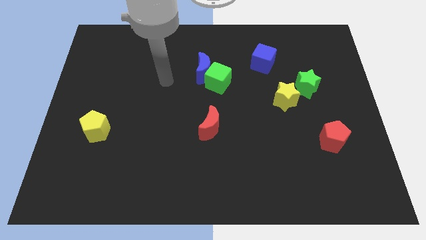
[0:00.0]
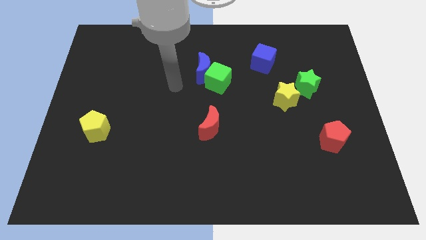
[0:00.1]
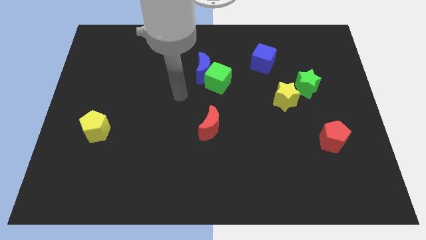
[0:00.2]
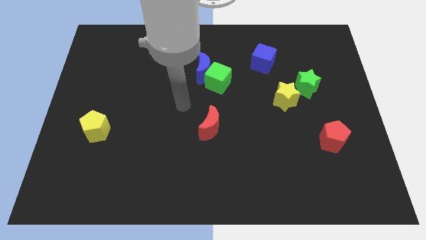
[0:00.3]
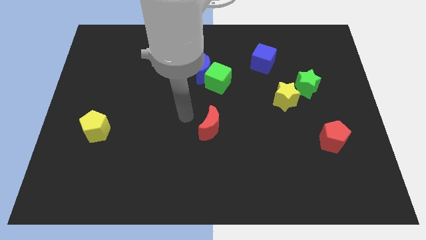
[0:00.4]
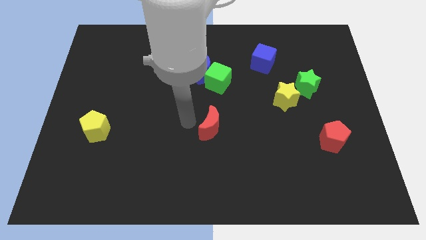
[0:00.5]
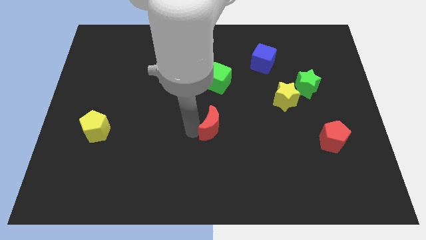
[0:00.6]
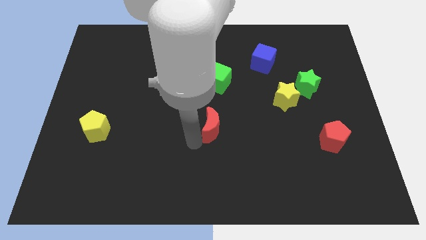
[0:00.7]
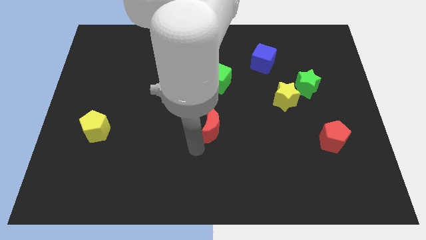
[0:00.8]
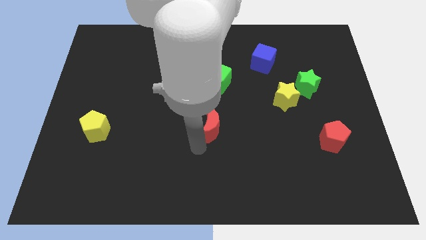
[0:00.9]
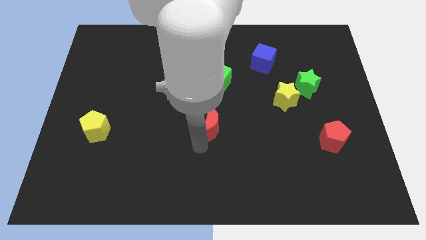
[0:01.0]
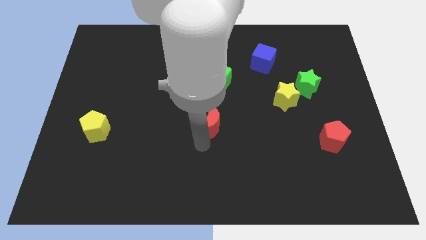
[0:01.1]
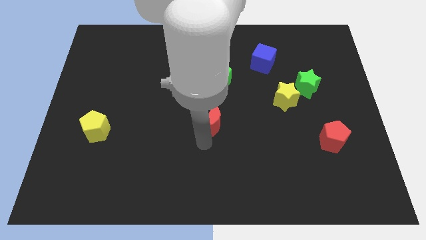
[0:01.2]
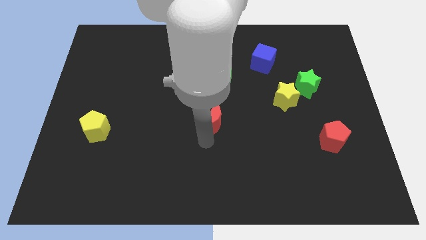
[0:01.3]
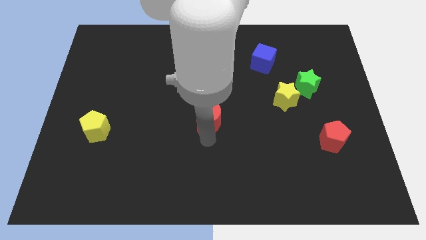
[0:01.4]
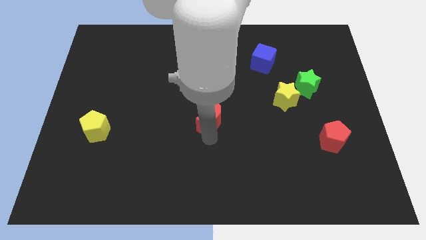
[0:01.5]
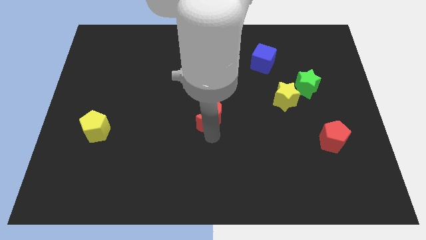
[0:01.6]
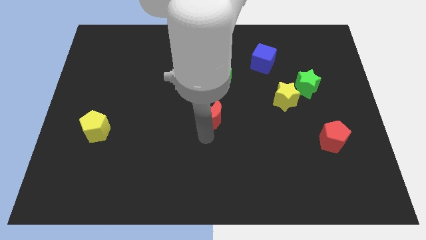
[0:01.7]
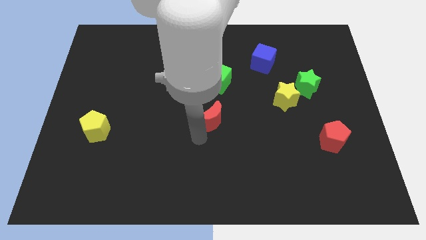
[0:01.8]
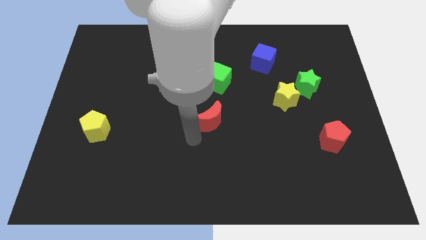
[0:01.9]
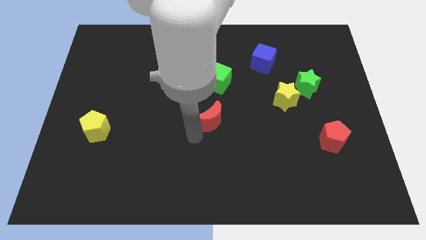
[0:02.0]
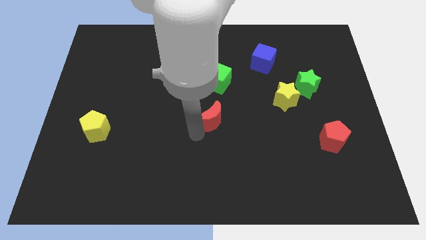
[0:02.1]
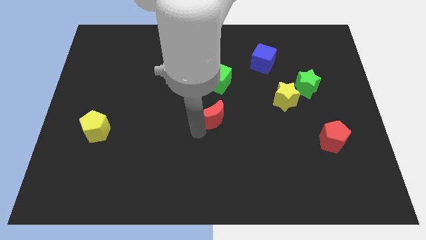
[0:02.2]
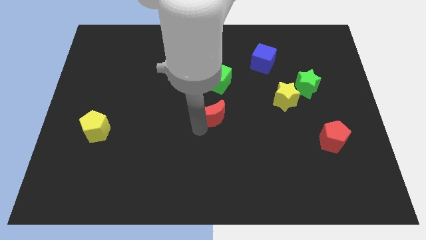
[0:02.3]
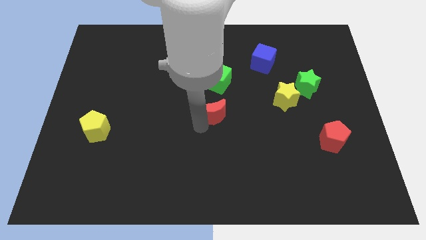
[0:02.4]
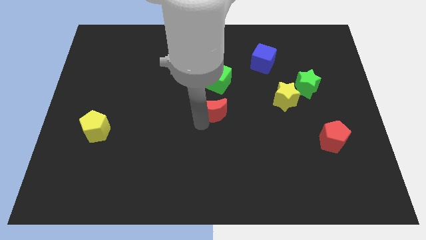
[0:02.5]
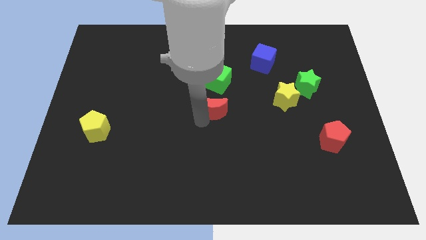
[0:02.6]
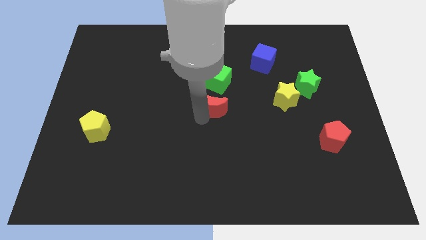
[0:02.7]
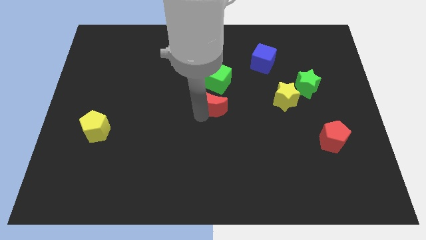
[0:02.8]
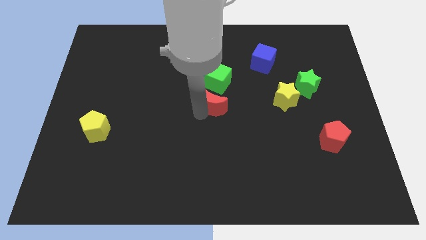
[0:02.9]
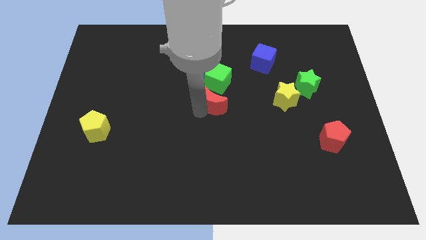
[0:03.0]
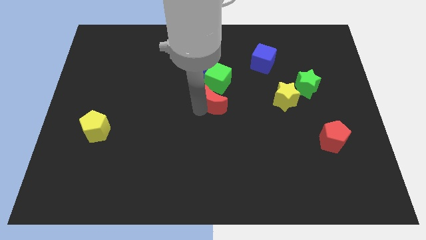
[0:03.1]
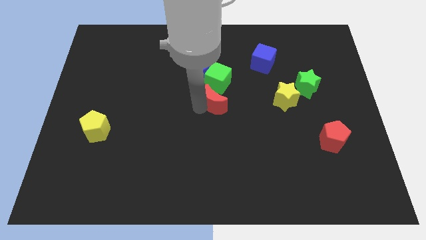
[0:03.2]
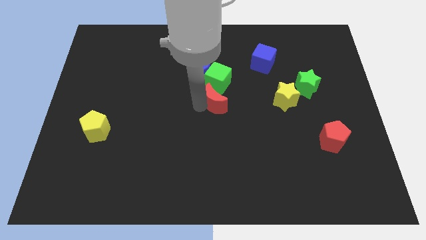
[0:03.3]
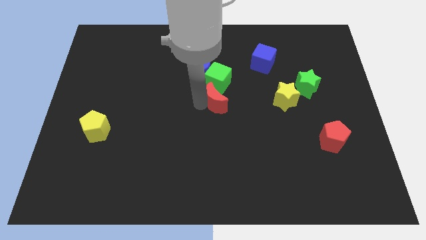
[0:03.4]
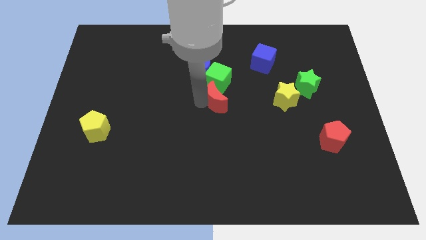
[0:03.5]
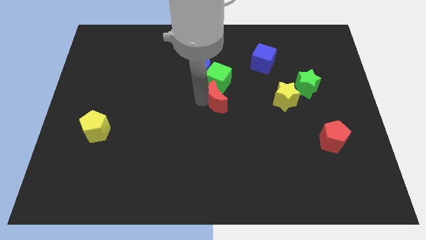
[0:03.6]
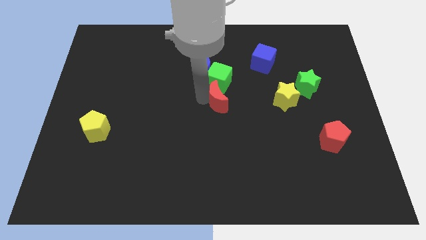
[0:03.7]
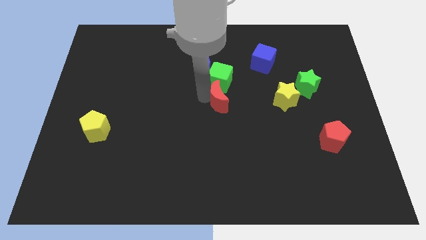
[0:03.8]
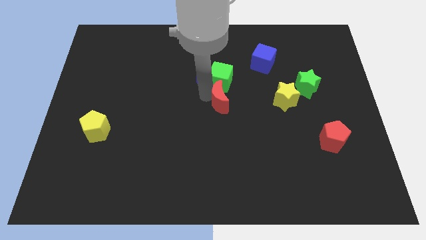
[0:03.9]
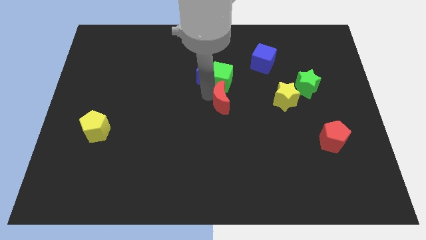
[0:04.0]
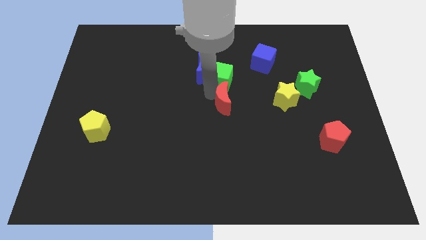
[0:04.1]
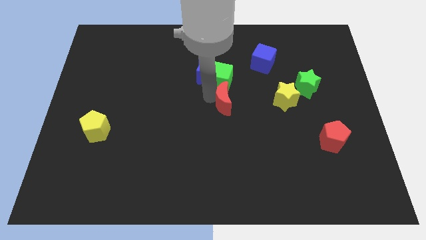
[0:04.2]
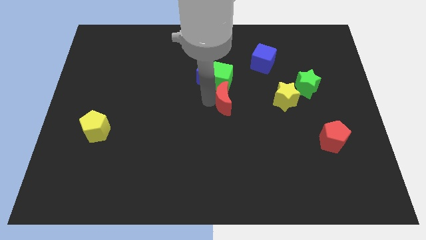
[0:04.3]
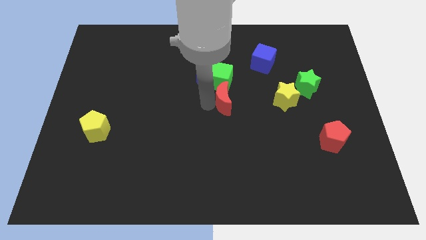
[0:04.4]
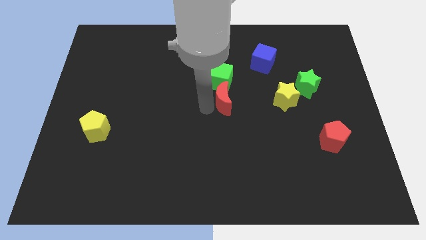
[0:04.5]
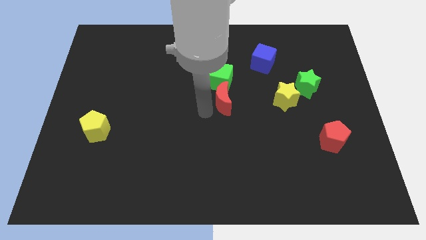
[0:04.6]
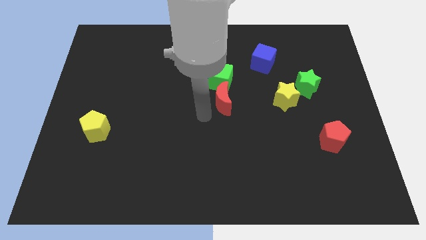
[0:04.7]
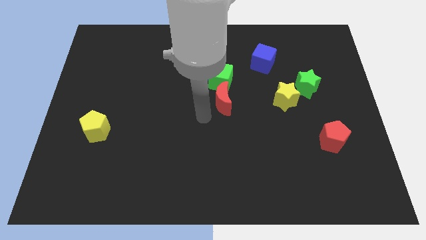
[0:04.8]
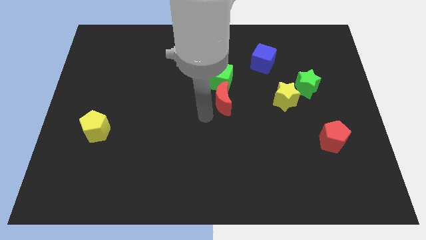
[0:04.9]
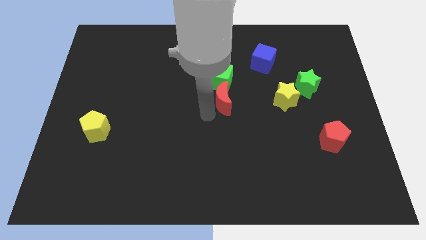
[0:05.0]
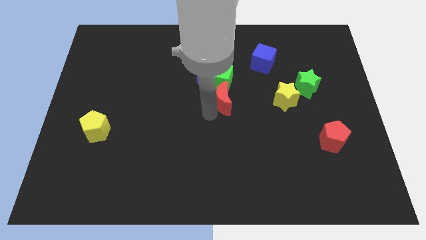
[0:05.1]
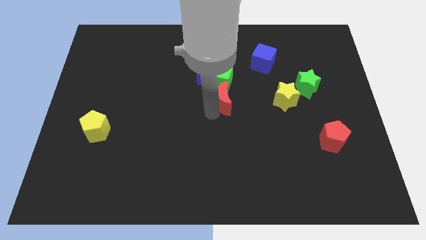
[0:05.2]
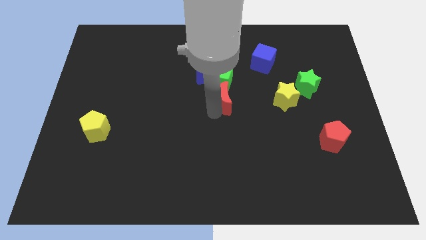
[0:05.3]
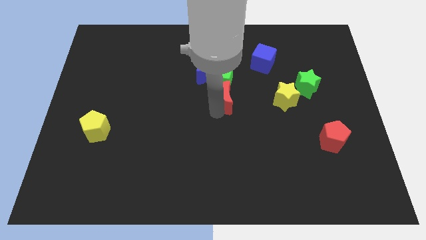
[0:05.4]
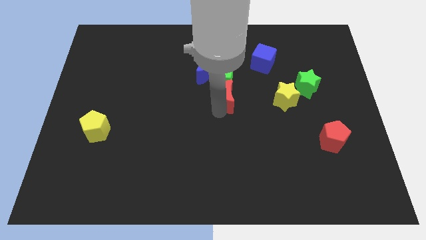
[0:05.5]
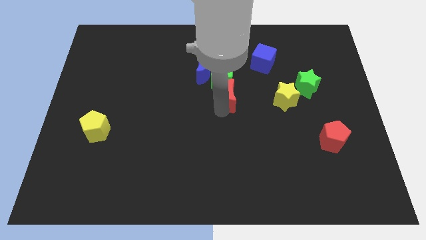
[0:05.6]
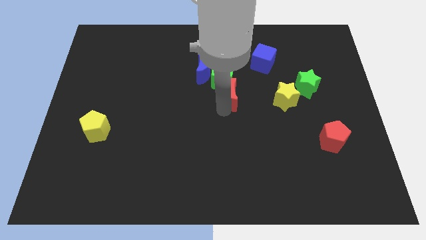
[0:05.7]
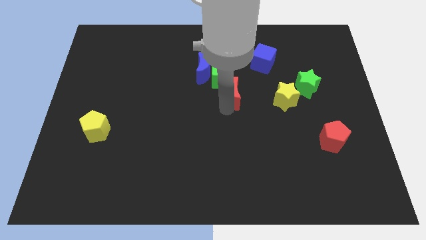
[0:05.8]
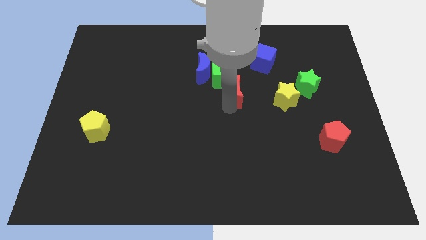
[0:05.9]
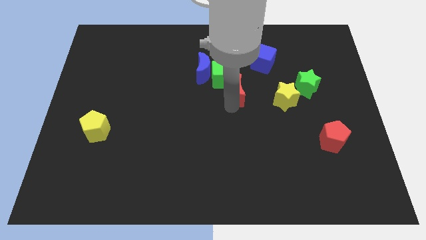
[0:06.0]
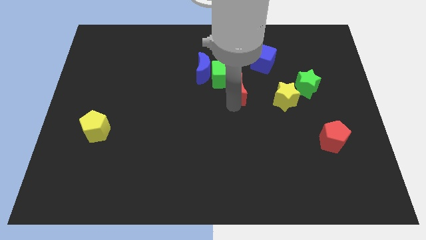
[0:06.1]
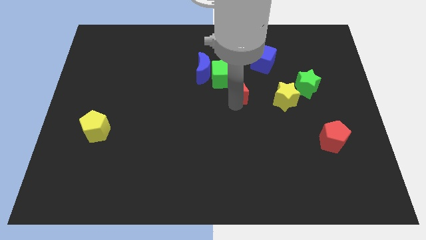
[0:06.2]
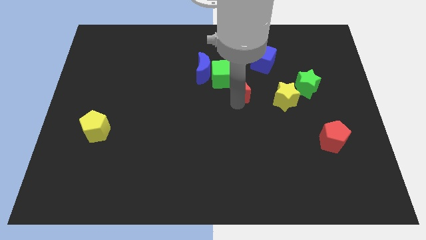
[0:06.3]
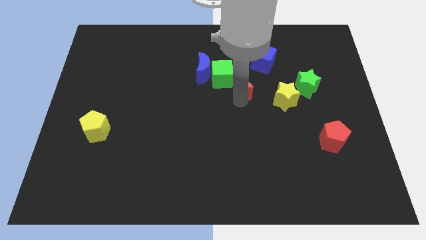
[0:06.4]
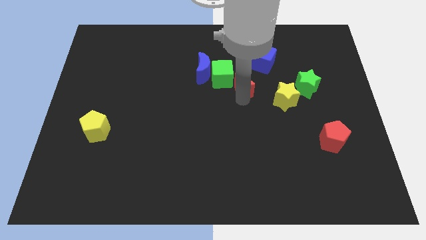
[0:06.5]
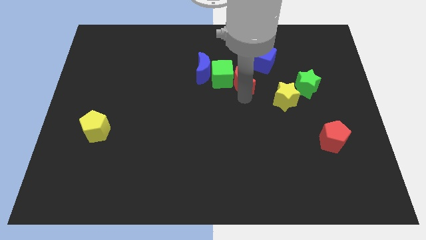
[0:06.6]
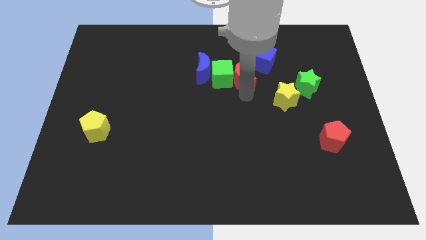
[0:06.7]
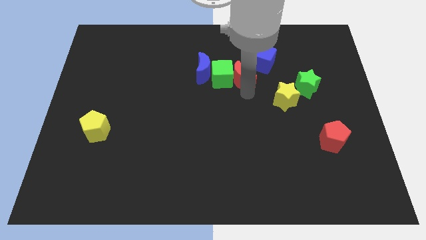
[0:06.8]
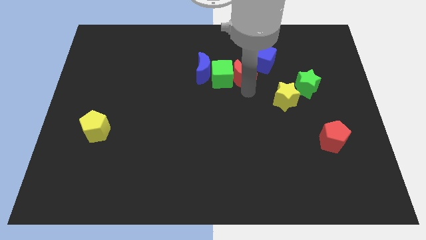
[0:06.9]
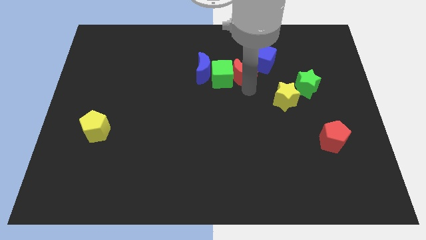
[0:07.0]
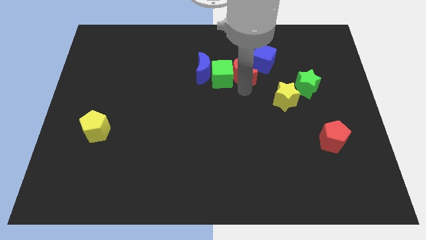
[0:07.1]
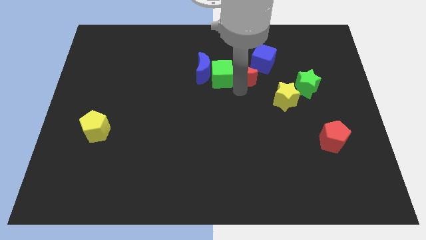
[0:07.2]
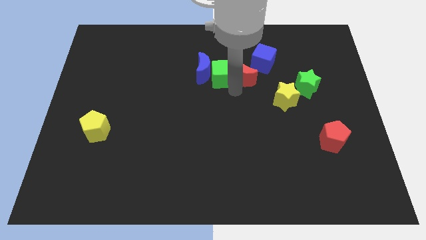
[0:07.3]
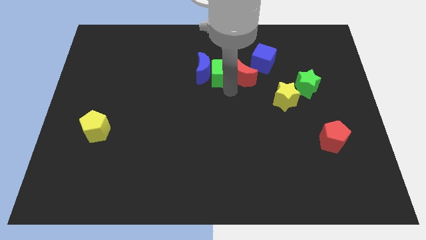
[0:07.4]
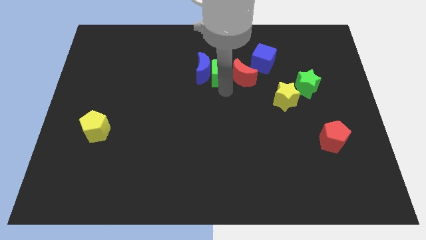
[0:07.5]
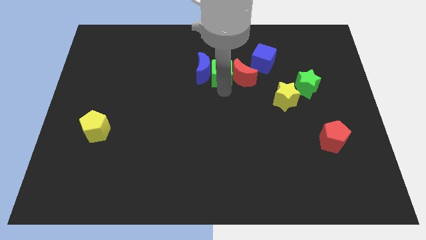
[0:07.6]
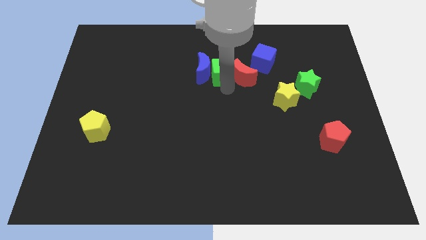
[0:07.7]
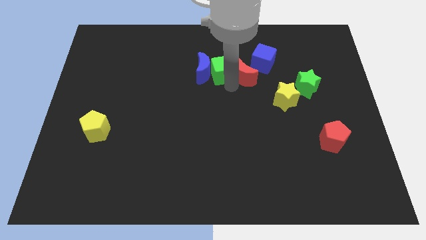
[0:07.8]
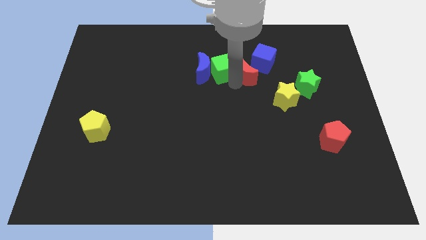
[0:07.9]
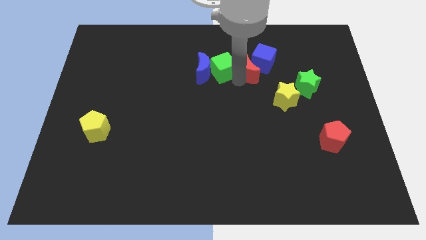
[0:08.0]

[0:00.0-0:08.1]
move the red moon close to the blue cube
